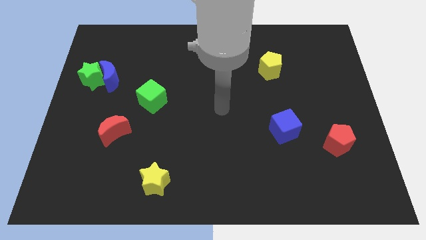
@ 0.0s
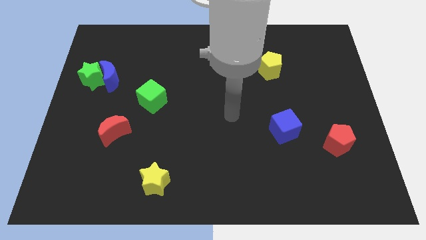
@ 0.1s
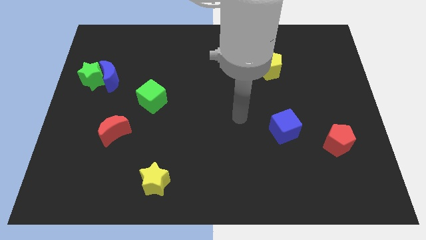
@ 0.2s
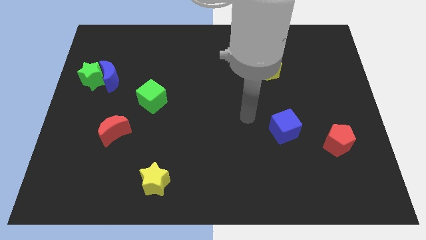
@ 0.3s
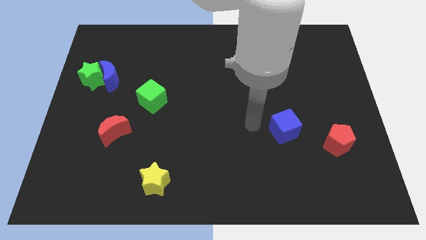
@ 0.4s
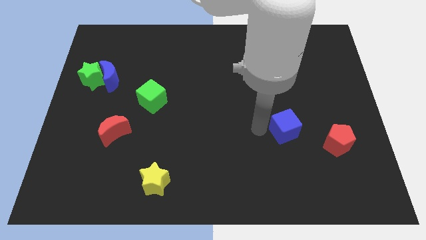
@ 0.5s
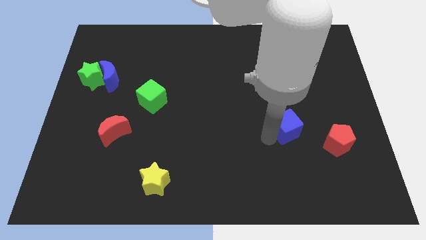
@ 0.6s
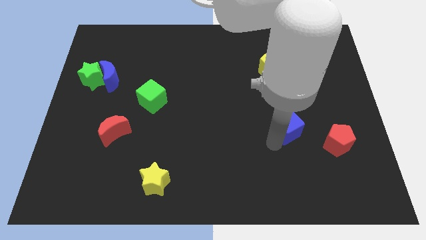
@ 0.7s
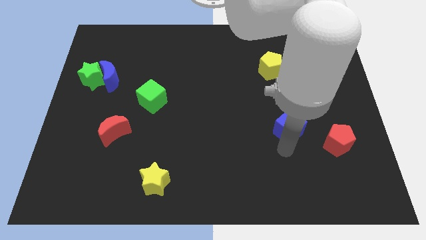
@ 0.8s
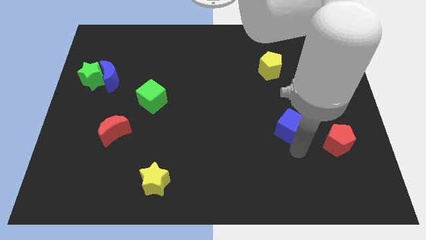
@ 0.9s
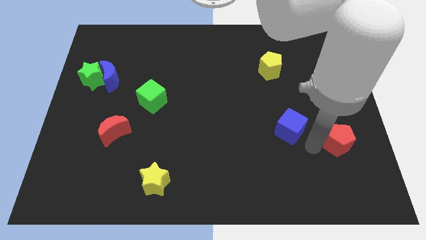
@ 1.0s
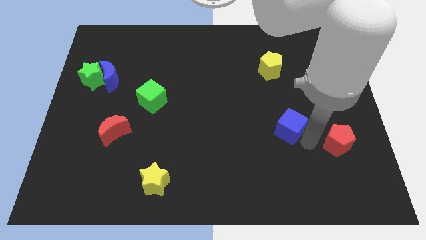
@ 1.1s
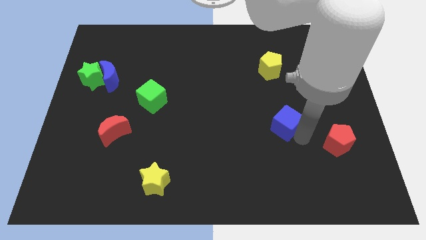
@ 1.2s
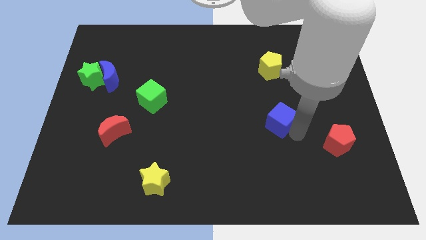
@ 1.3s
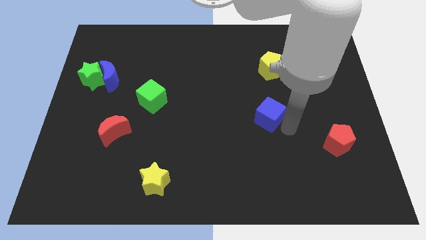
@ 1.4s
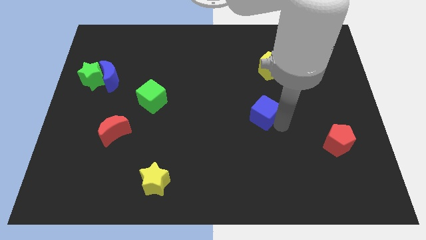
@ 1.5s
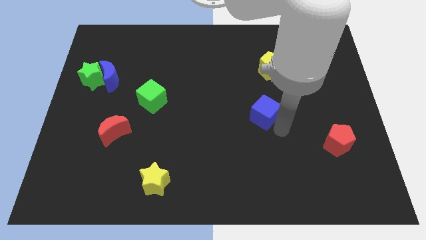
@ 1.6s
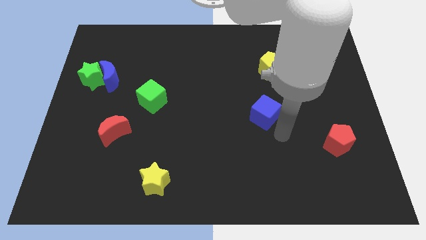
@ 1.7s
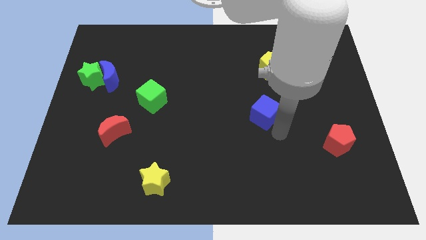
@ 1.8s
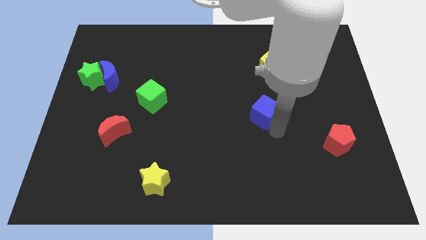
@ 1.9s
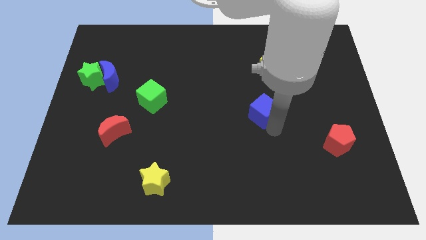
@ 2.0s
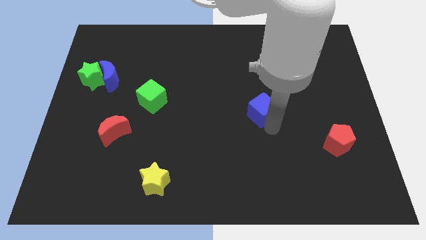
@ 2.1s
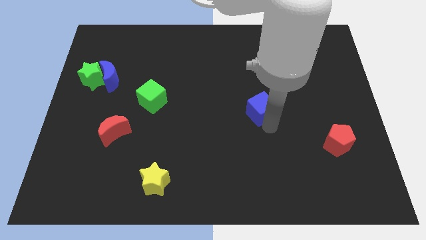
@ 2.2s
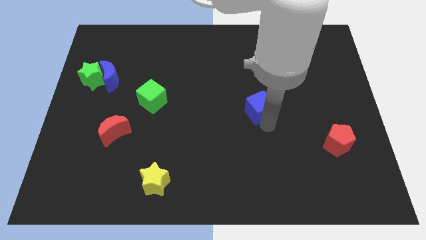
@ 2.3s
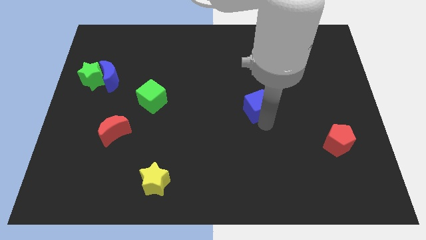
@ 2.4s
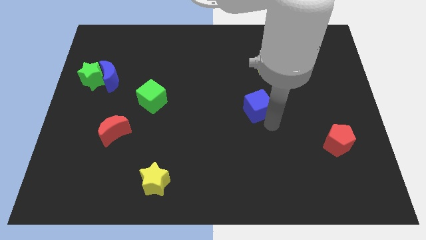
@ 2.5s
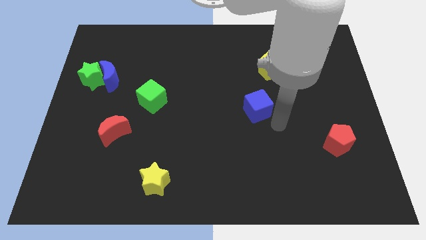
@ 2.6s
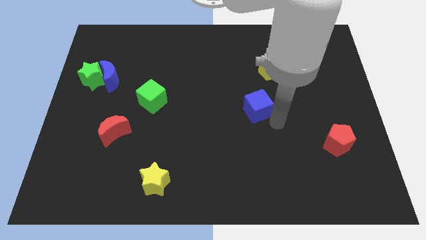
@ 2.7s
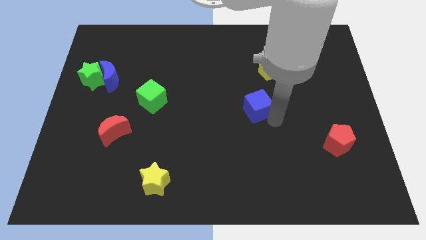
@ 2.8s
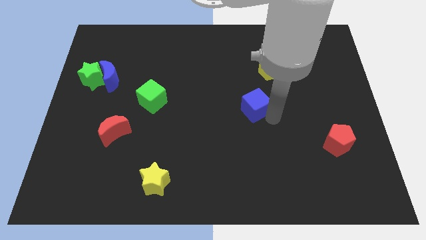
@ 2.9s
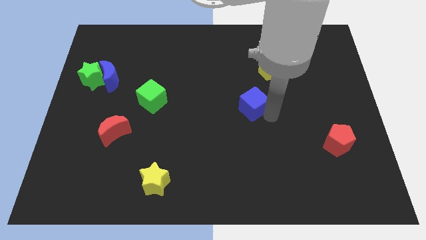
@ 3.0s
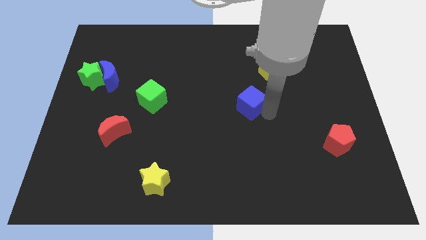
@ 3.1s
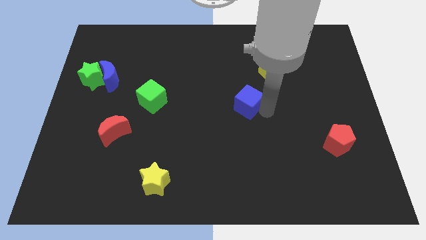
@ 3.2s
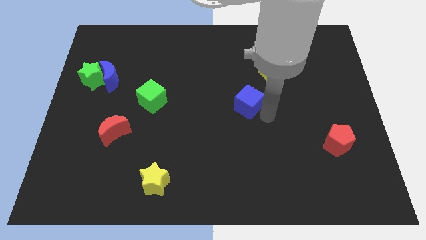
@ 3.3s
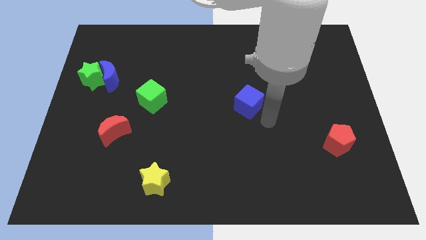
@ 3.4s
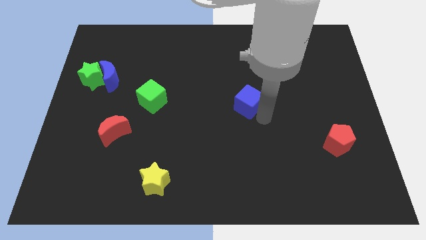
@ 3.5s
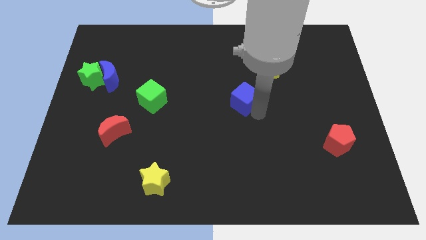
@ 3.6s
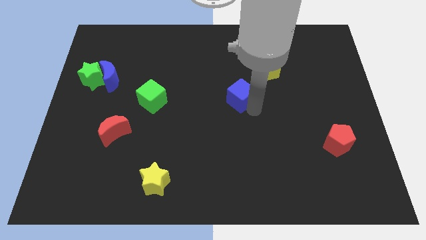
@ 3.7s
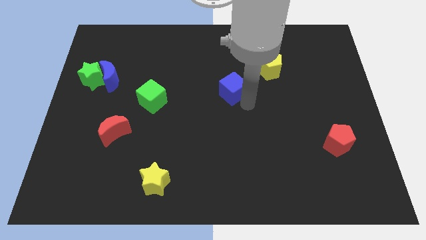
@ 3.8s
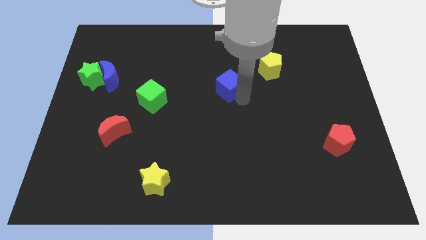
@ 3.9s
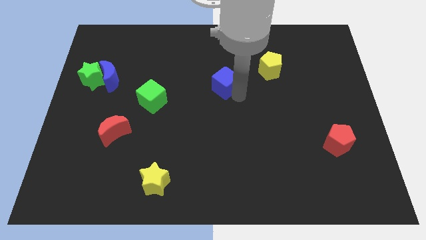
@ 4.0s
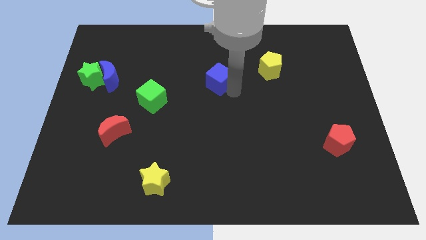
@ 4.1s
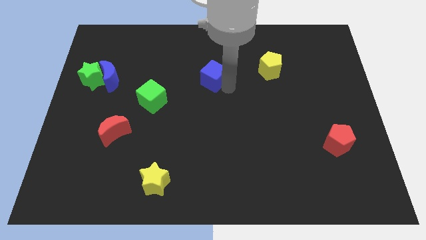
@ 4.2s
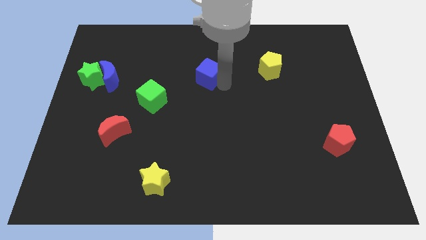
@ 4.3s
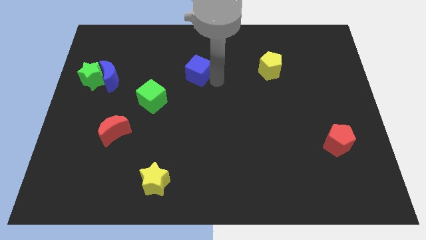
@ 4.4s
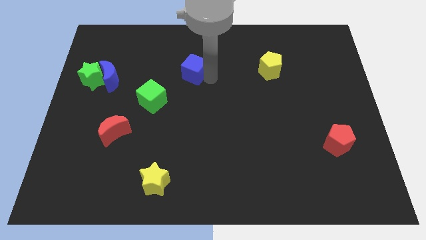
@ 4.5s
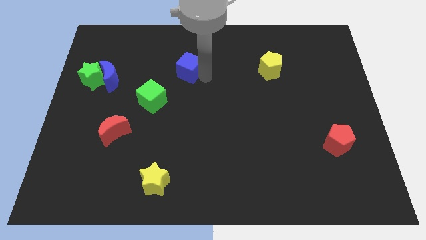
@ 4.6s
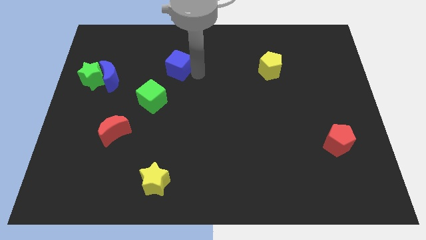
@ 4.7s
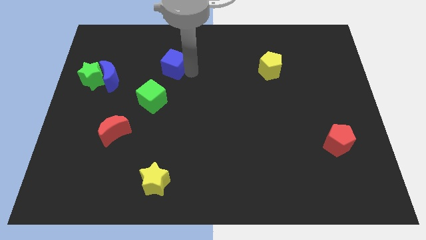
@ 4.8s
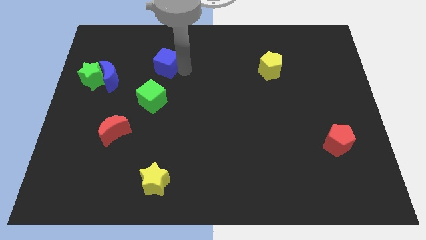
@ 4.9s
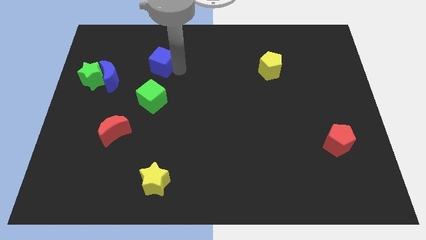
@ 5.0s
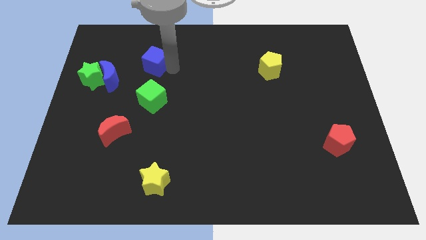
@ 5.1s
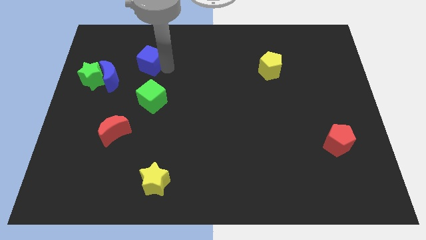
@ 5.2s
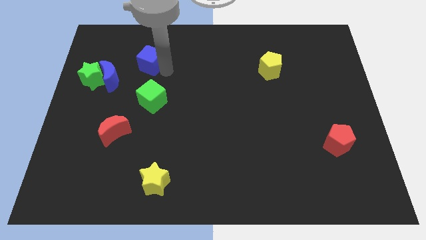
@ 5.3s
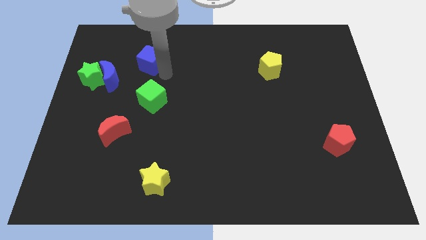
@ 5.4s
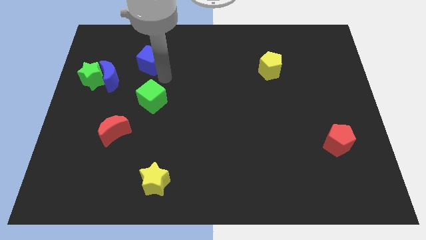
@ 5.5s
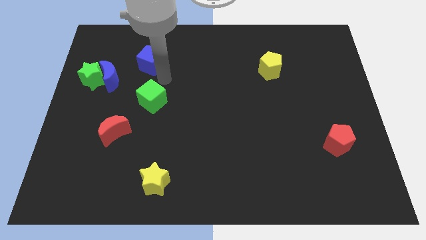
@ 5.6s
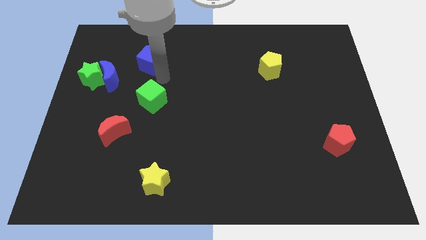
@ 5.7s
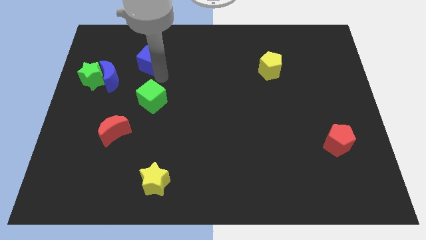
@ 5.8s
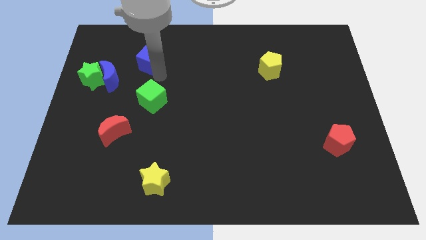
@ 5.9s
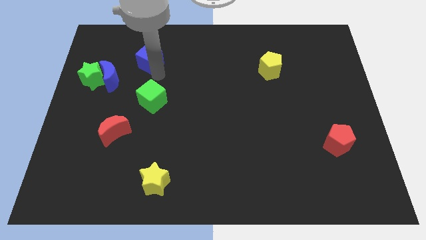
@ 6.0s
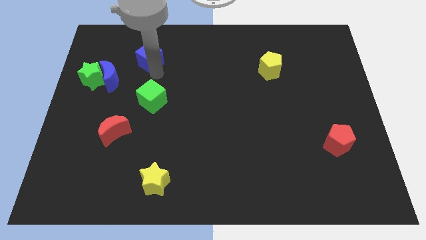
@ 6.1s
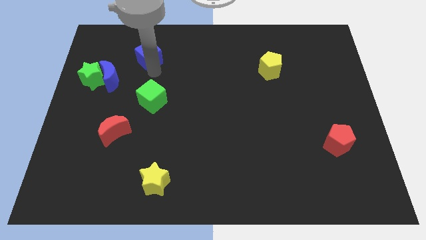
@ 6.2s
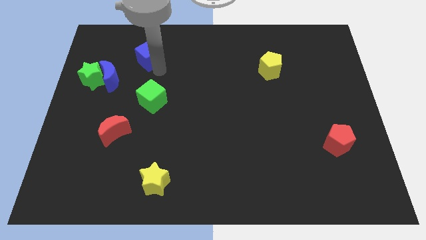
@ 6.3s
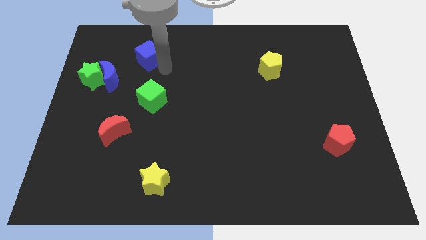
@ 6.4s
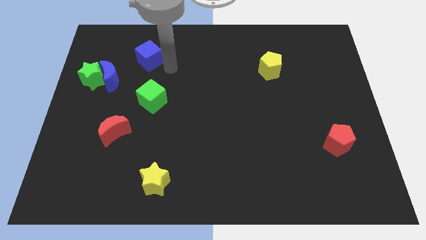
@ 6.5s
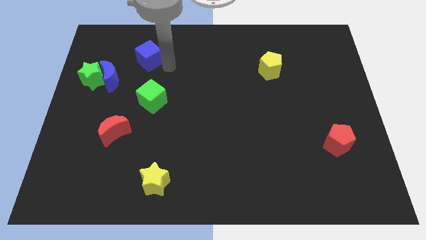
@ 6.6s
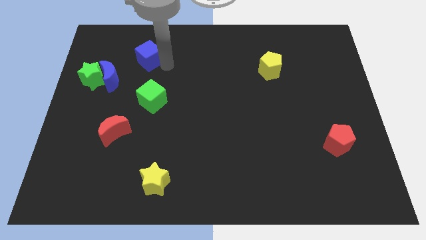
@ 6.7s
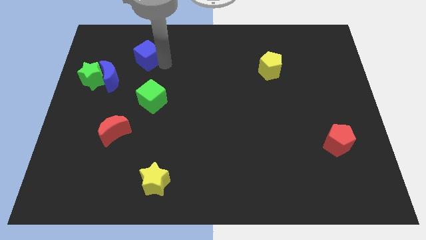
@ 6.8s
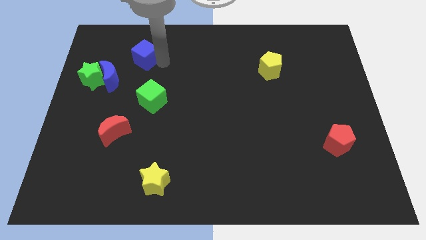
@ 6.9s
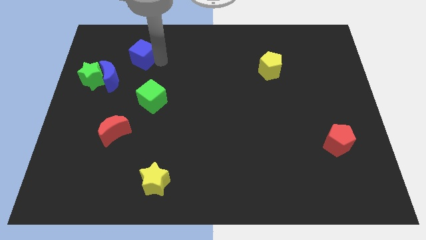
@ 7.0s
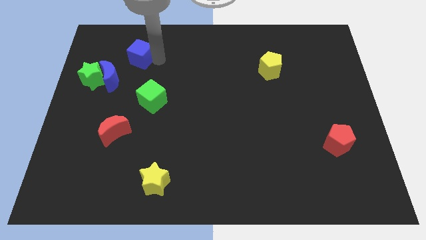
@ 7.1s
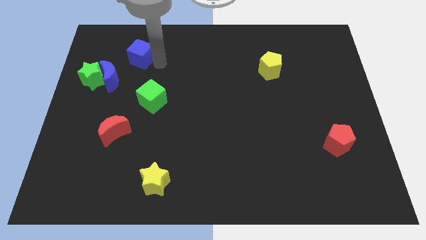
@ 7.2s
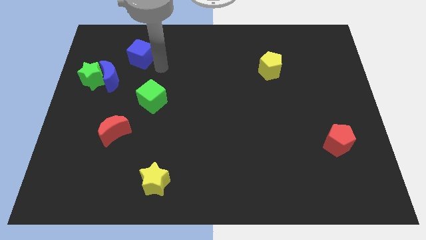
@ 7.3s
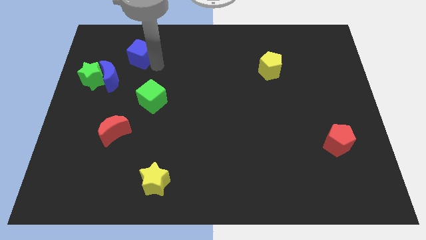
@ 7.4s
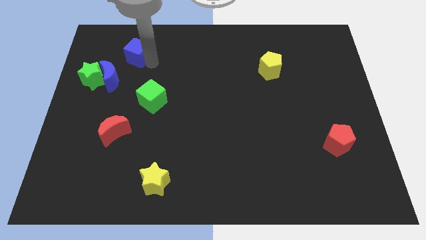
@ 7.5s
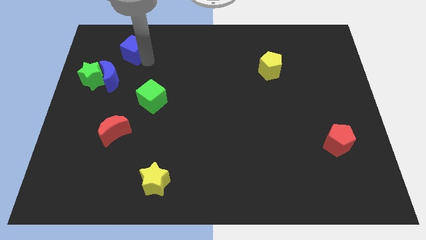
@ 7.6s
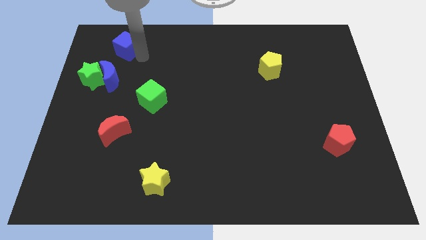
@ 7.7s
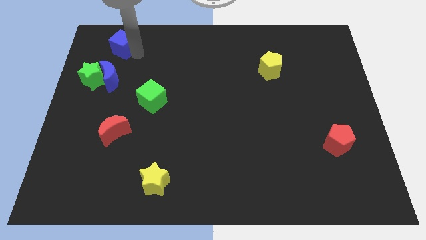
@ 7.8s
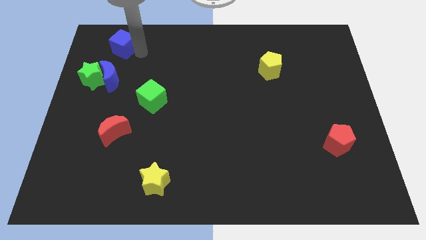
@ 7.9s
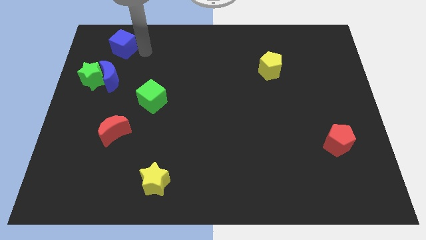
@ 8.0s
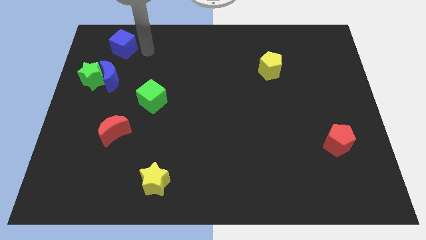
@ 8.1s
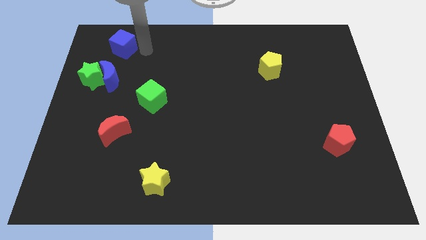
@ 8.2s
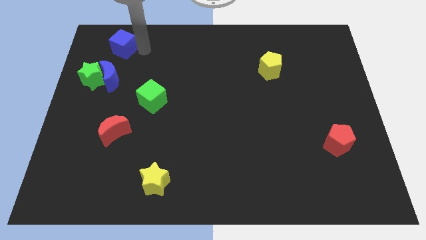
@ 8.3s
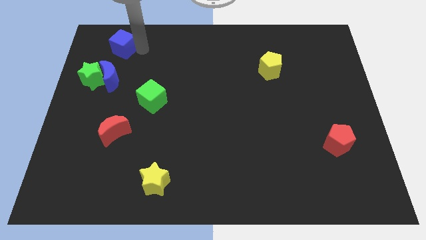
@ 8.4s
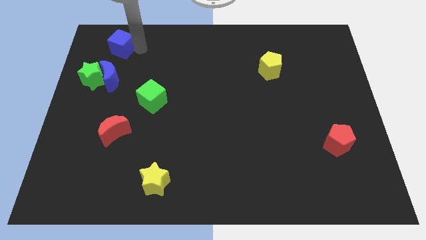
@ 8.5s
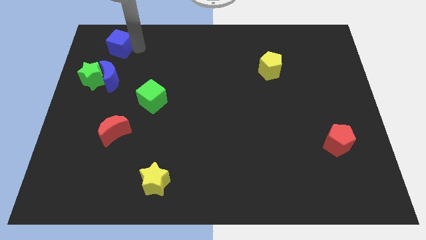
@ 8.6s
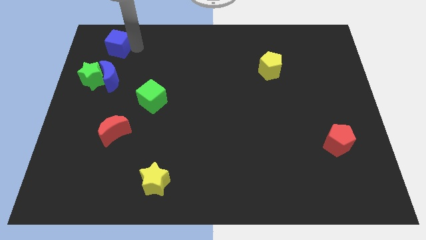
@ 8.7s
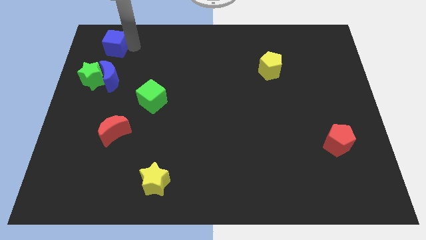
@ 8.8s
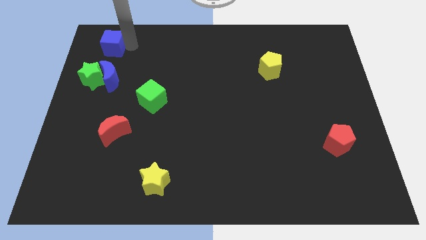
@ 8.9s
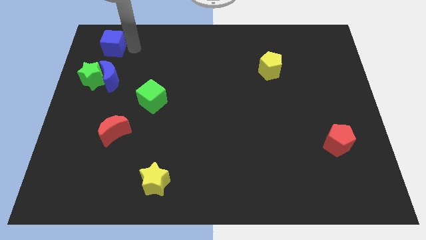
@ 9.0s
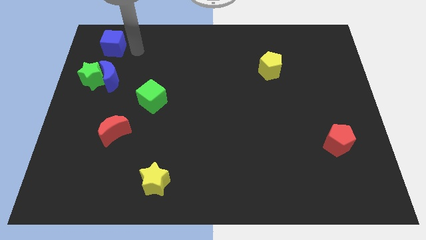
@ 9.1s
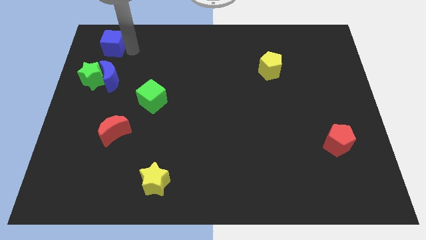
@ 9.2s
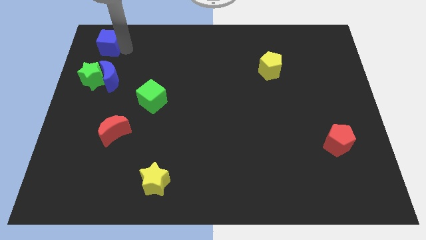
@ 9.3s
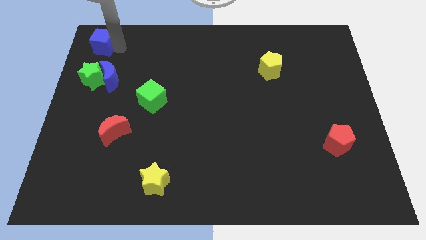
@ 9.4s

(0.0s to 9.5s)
put the blue cube to the top left corner
